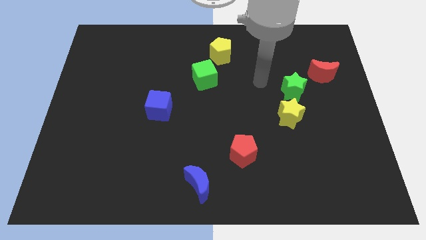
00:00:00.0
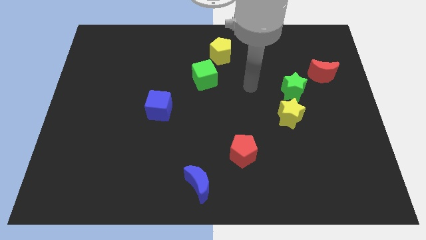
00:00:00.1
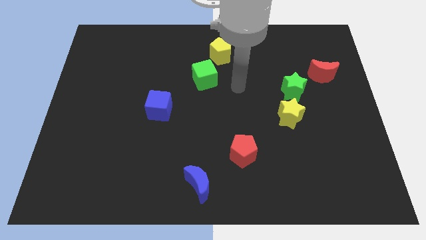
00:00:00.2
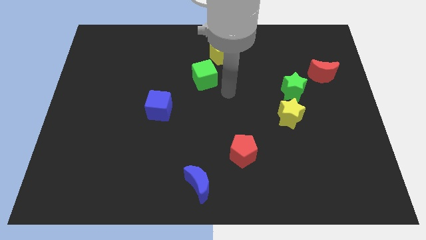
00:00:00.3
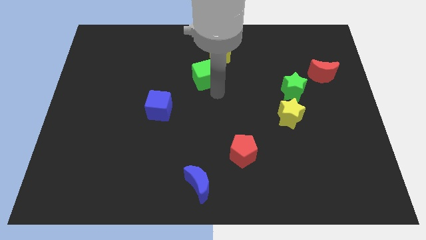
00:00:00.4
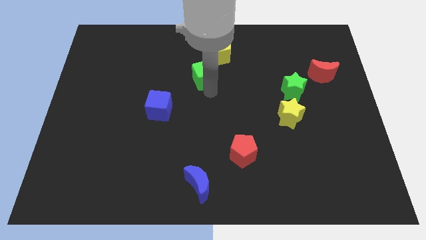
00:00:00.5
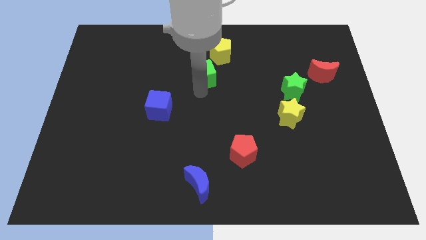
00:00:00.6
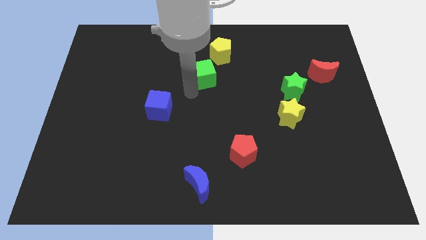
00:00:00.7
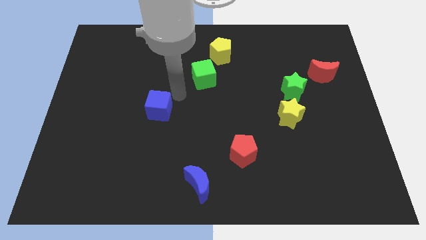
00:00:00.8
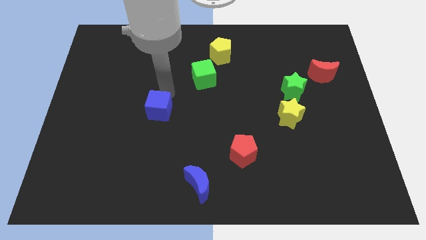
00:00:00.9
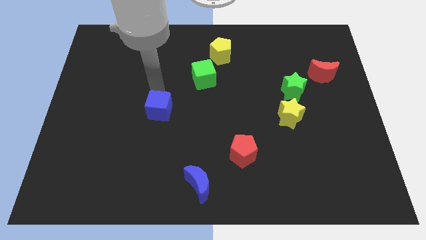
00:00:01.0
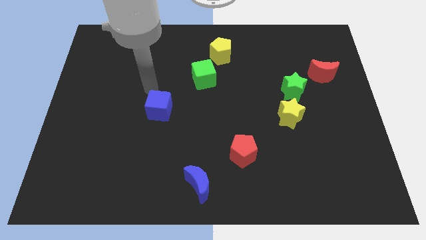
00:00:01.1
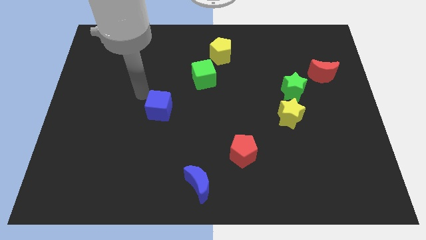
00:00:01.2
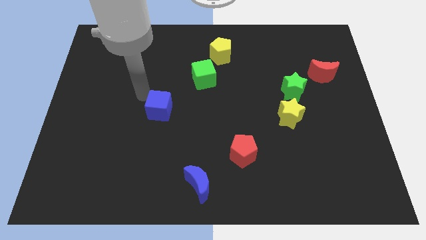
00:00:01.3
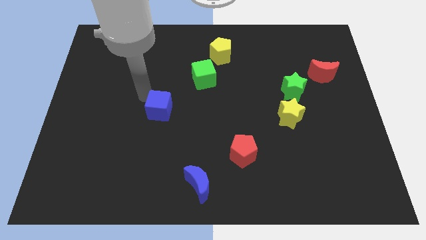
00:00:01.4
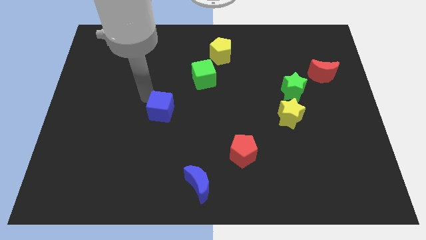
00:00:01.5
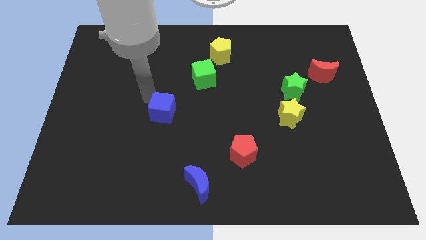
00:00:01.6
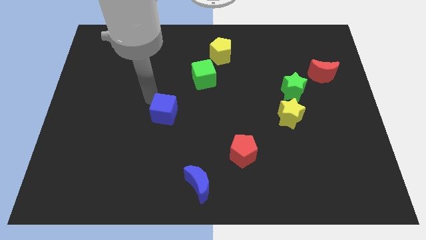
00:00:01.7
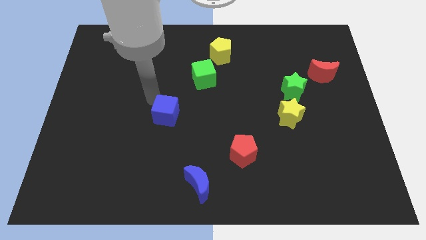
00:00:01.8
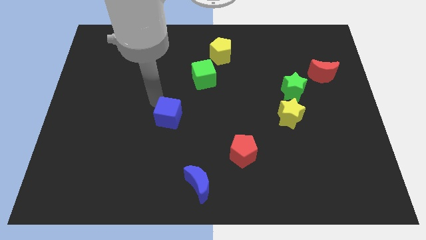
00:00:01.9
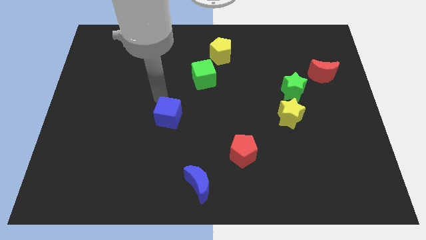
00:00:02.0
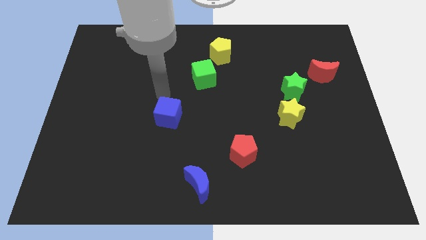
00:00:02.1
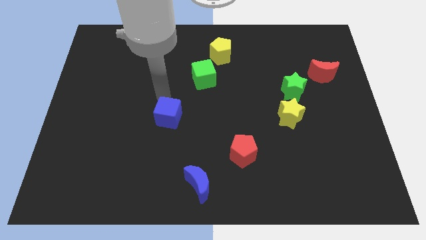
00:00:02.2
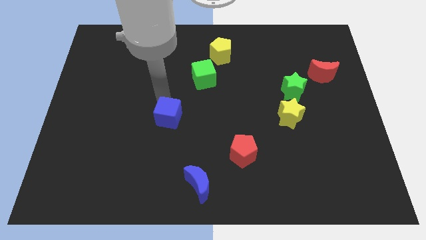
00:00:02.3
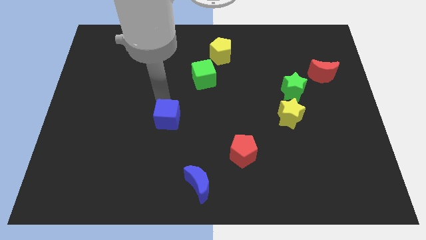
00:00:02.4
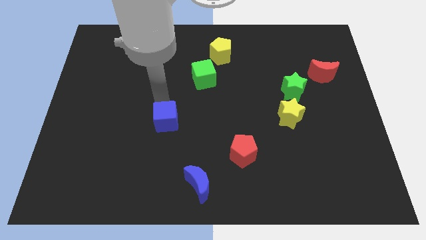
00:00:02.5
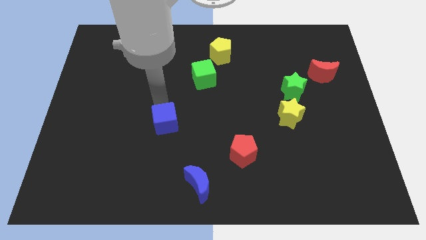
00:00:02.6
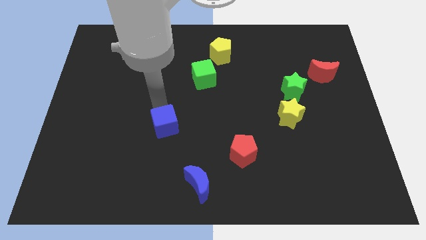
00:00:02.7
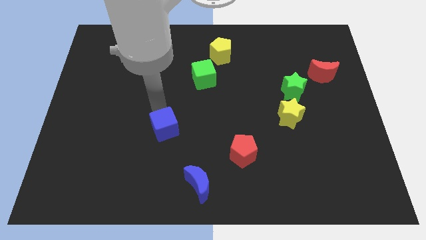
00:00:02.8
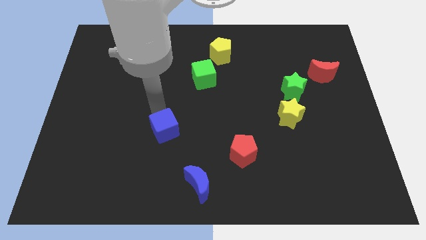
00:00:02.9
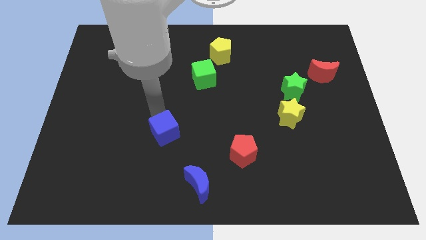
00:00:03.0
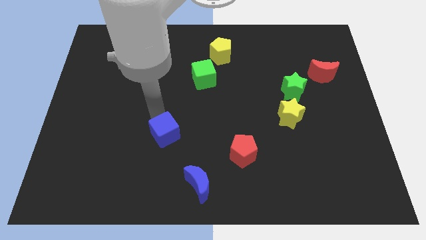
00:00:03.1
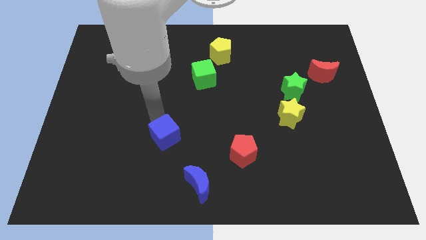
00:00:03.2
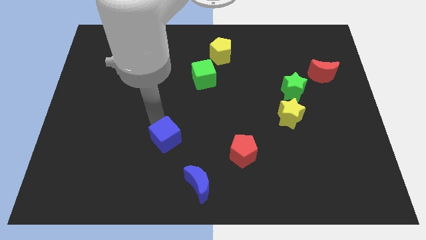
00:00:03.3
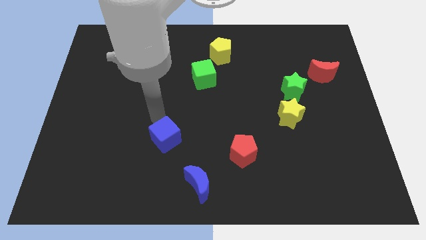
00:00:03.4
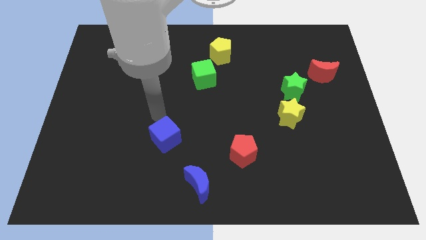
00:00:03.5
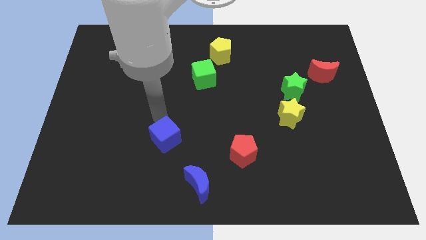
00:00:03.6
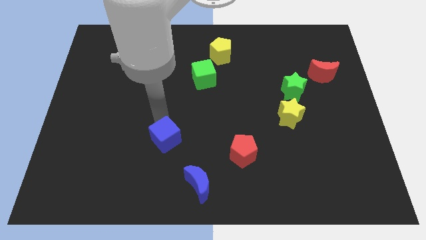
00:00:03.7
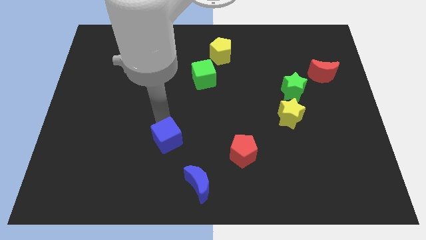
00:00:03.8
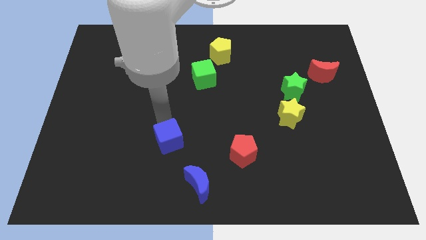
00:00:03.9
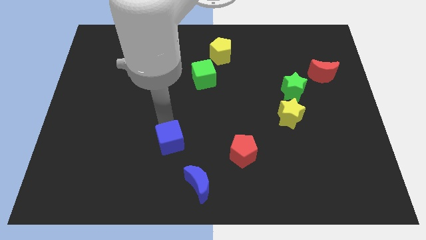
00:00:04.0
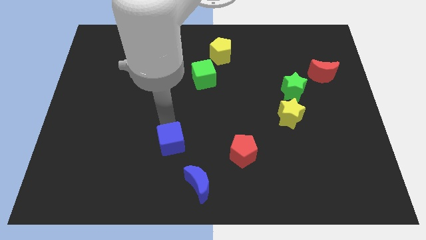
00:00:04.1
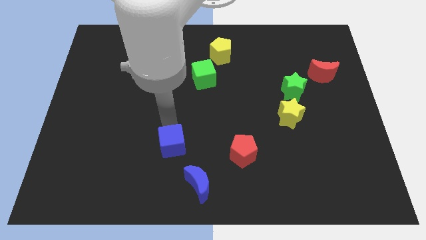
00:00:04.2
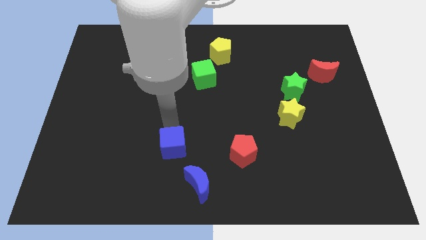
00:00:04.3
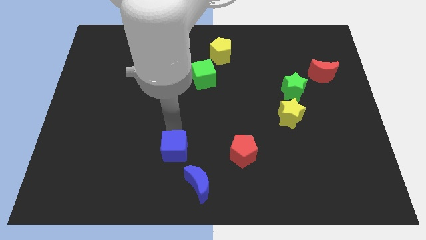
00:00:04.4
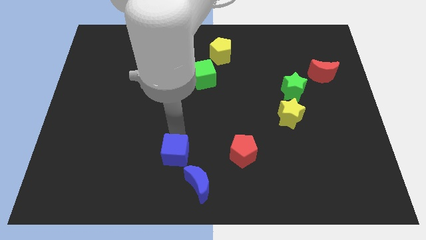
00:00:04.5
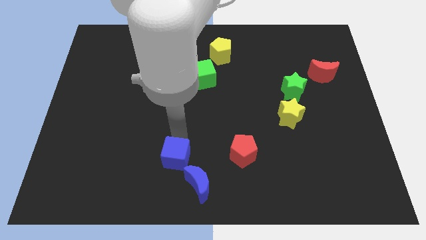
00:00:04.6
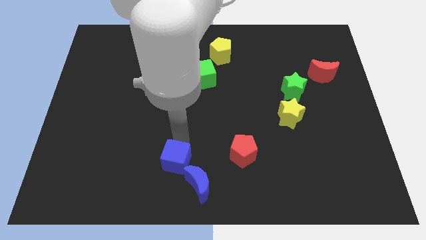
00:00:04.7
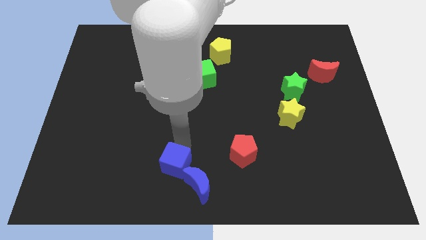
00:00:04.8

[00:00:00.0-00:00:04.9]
slide the blue cube to the bottom

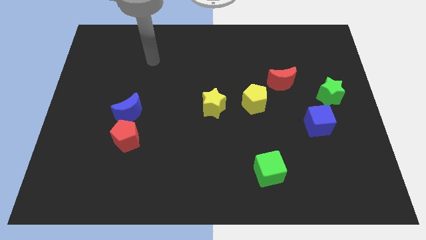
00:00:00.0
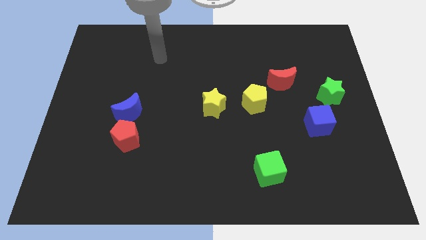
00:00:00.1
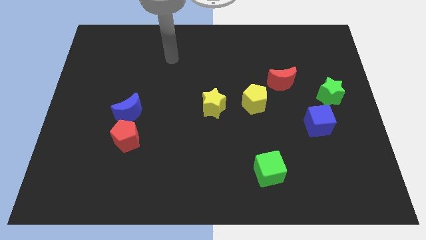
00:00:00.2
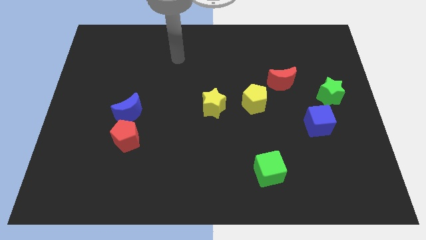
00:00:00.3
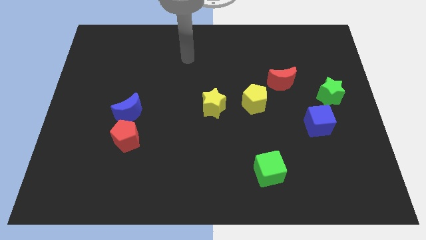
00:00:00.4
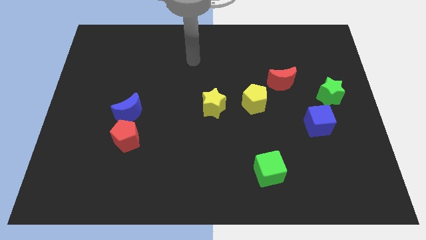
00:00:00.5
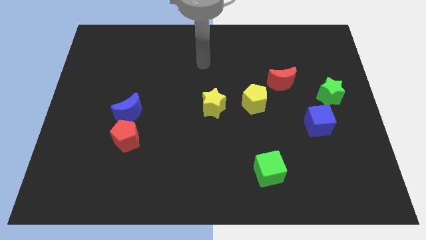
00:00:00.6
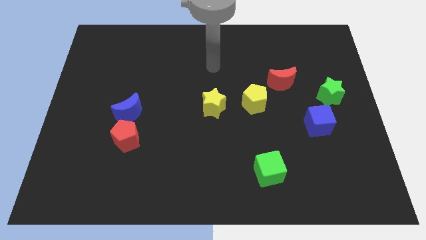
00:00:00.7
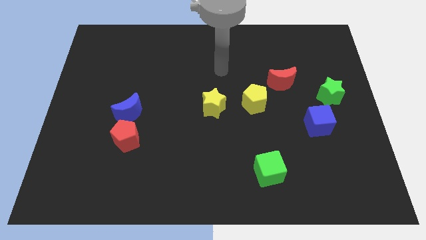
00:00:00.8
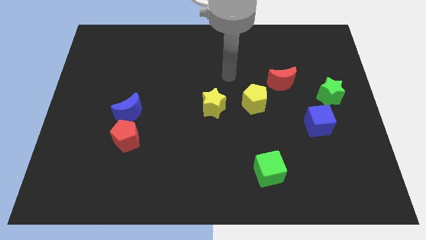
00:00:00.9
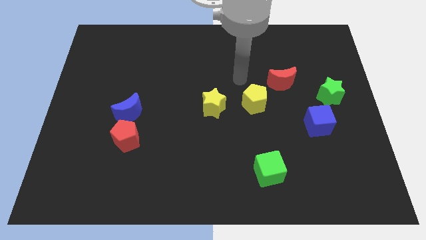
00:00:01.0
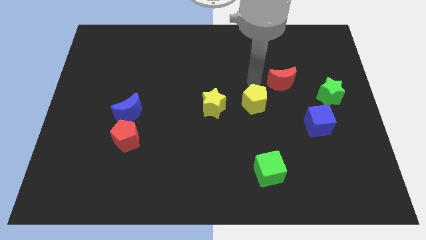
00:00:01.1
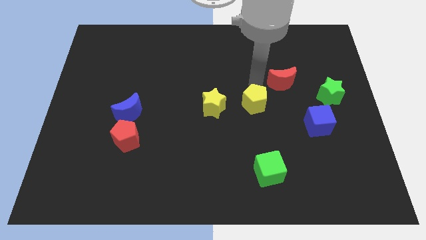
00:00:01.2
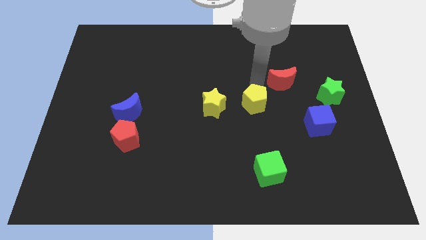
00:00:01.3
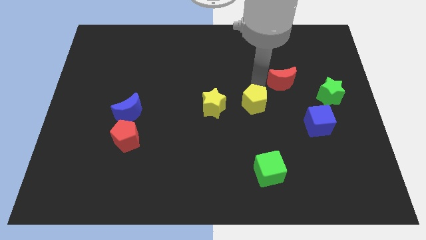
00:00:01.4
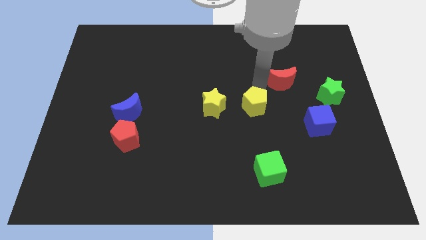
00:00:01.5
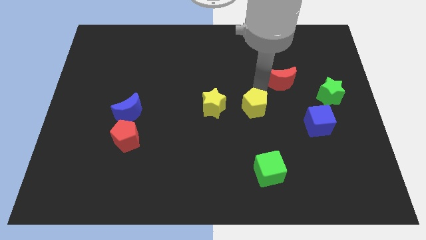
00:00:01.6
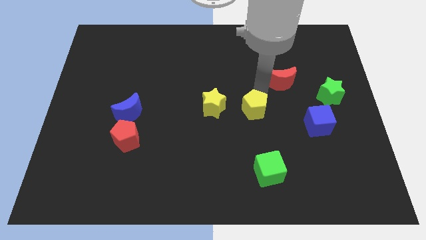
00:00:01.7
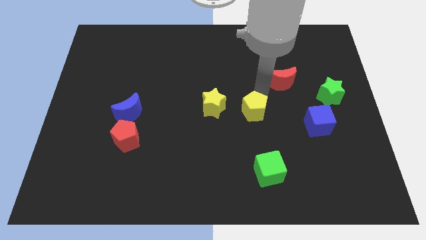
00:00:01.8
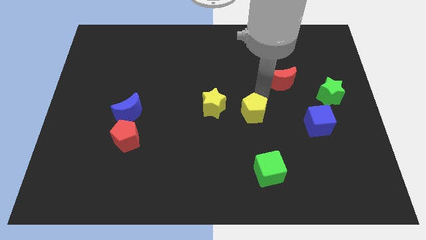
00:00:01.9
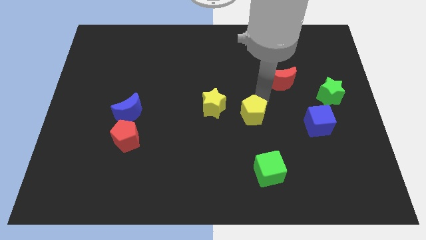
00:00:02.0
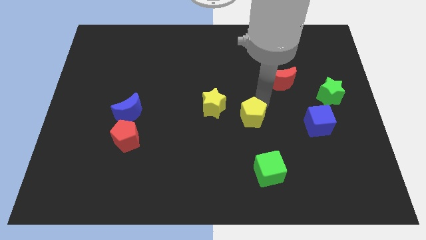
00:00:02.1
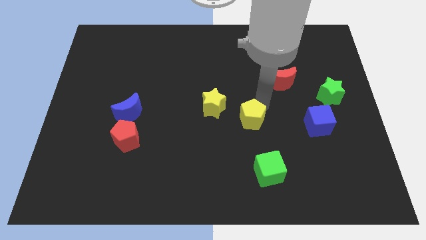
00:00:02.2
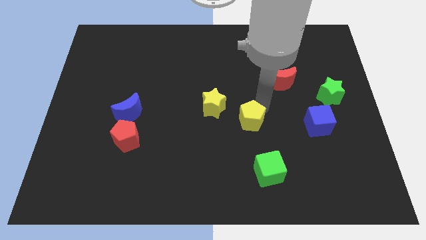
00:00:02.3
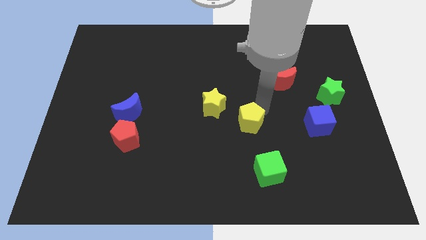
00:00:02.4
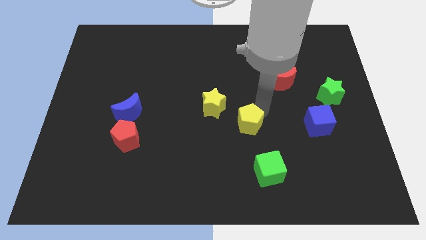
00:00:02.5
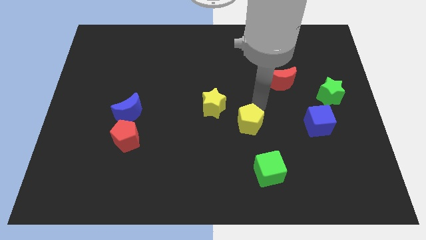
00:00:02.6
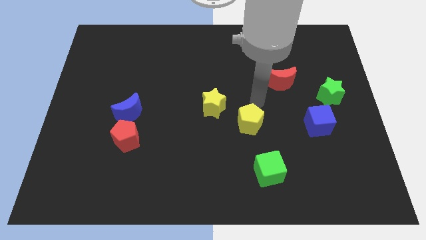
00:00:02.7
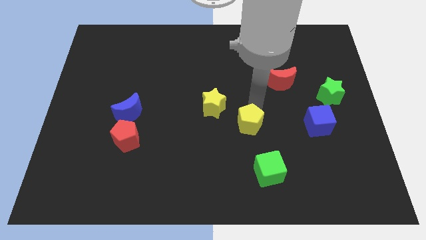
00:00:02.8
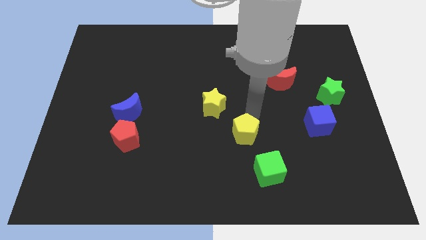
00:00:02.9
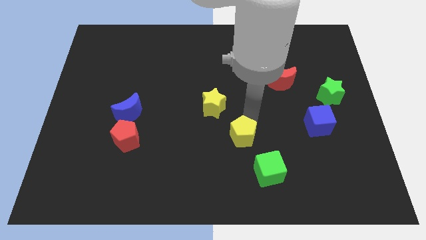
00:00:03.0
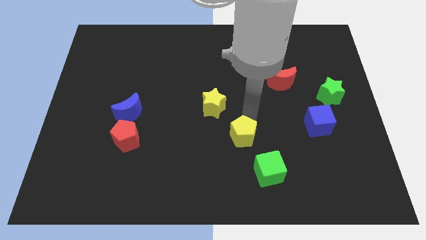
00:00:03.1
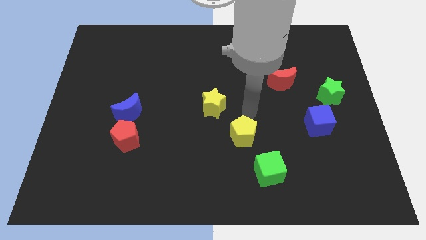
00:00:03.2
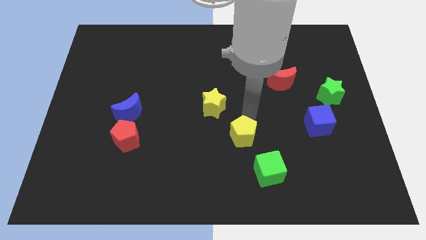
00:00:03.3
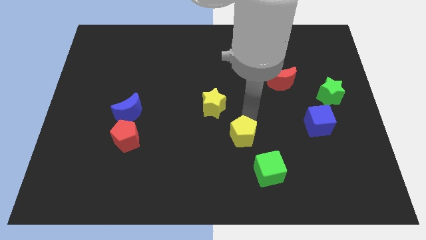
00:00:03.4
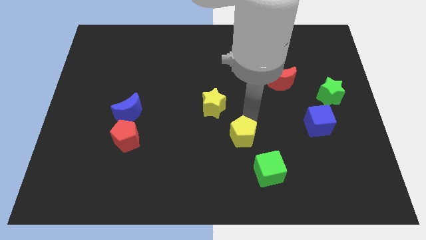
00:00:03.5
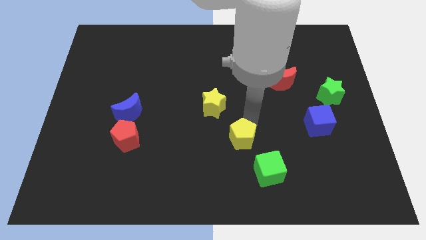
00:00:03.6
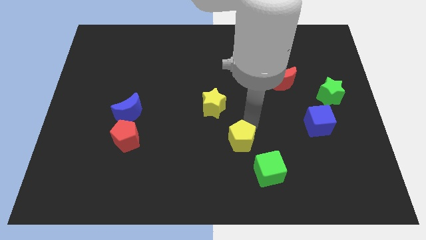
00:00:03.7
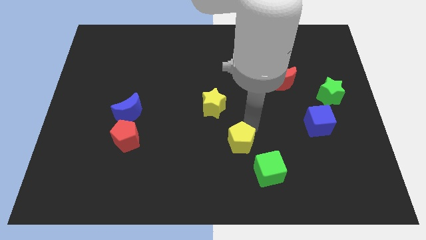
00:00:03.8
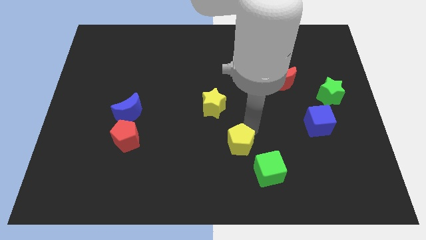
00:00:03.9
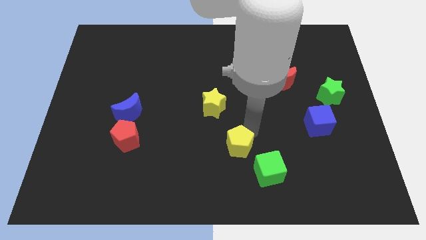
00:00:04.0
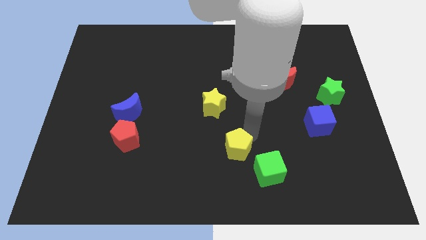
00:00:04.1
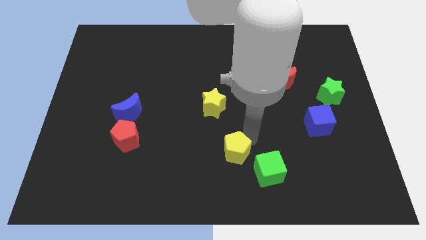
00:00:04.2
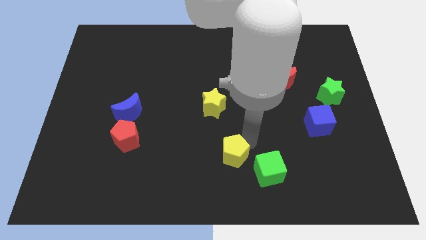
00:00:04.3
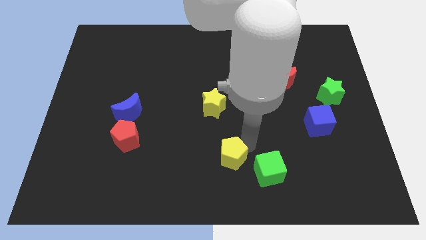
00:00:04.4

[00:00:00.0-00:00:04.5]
push the yellow pentagon to the bottom
